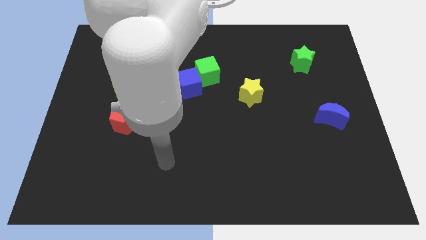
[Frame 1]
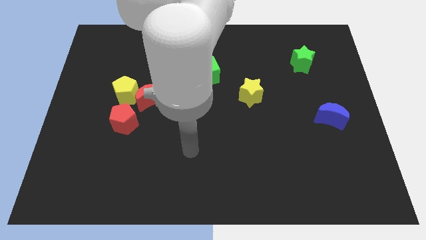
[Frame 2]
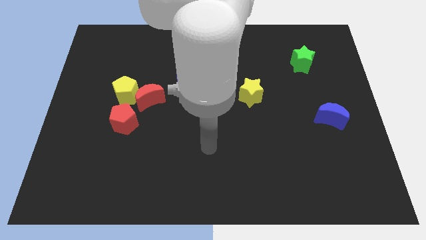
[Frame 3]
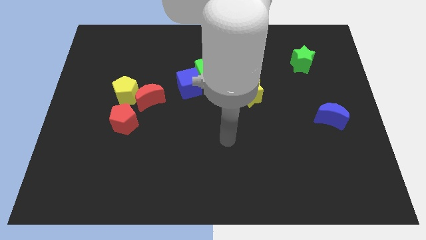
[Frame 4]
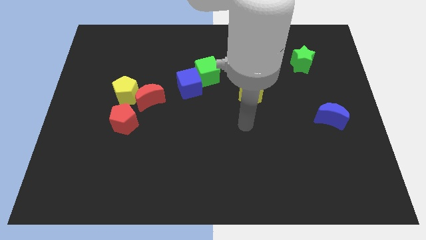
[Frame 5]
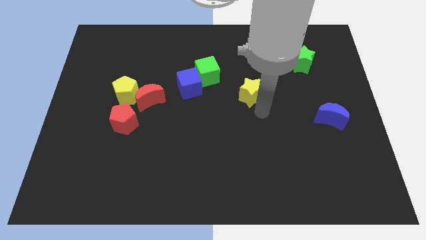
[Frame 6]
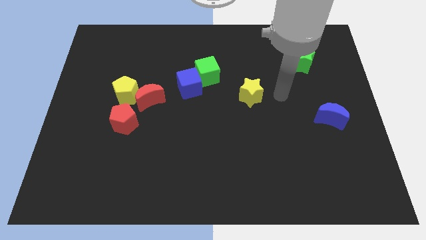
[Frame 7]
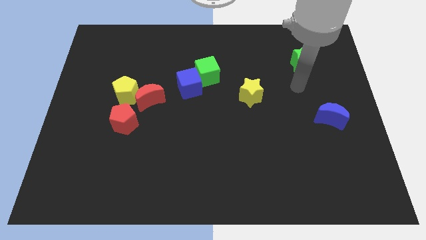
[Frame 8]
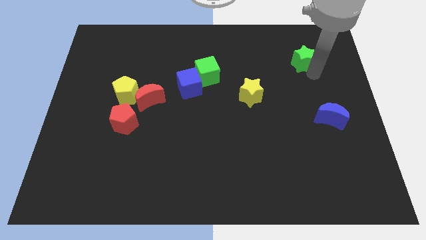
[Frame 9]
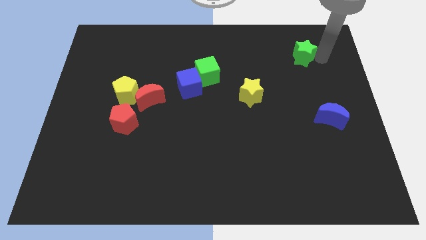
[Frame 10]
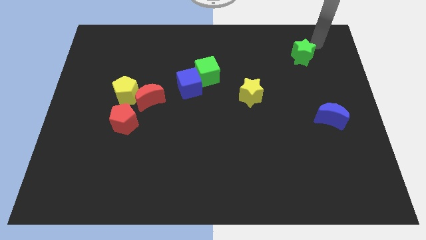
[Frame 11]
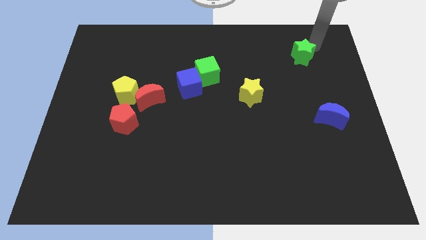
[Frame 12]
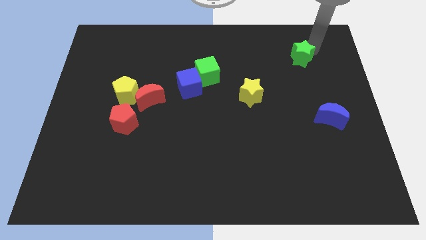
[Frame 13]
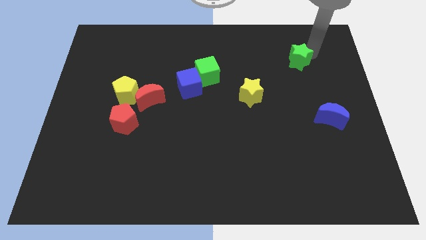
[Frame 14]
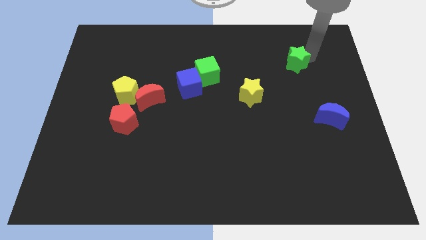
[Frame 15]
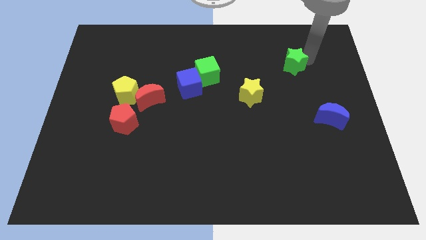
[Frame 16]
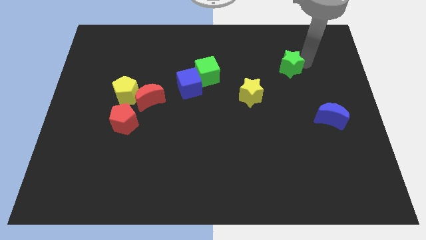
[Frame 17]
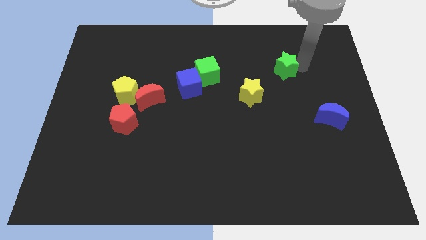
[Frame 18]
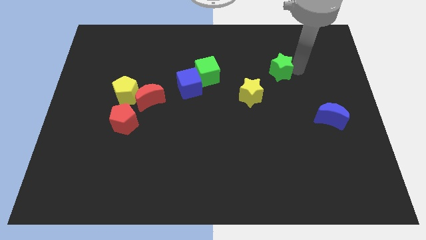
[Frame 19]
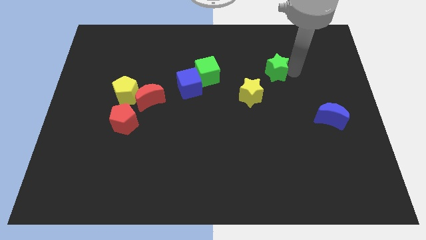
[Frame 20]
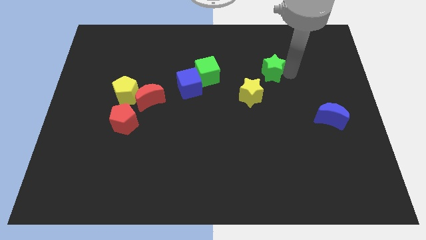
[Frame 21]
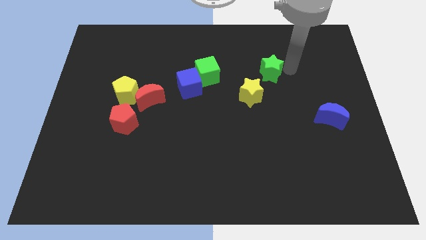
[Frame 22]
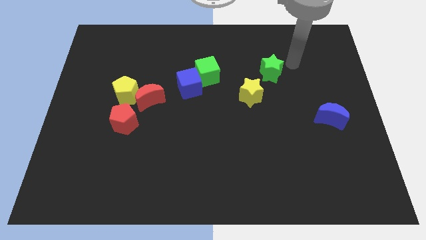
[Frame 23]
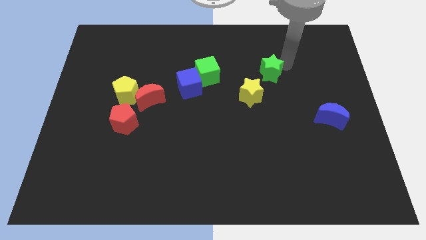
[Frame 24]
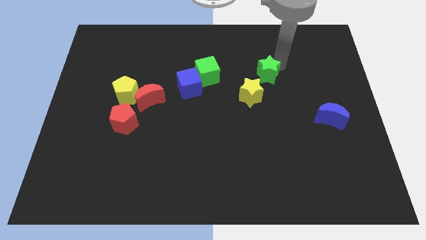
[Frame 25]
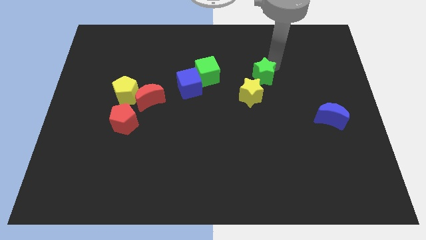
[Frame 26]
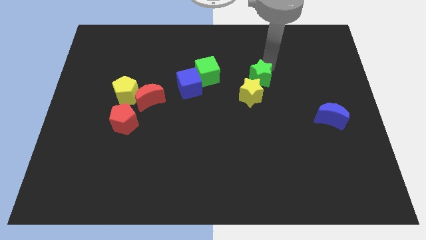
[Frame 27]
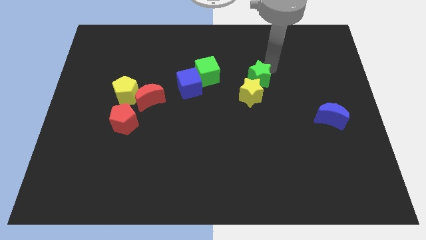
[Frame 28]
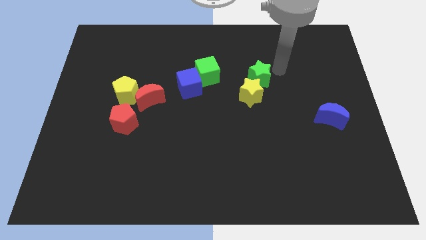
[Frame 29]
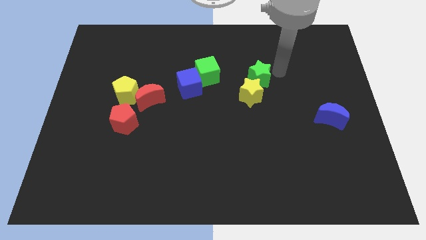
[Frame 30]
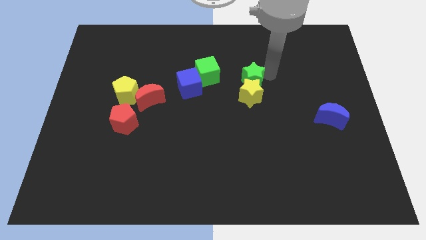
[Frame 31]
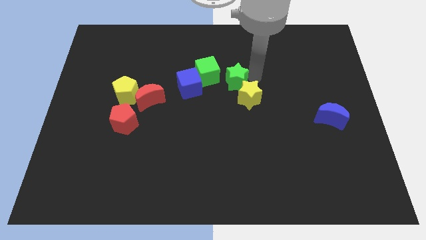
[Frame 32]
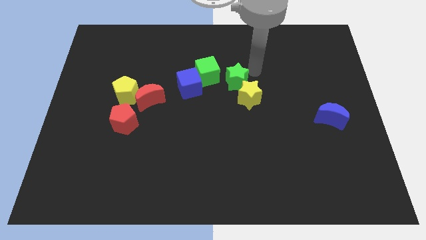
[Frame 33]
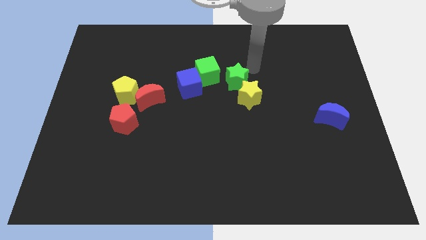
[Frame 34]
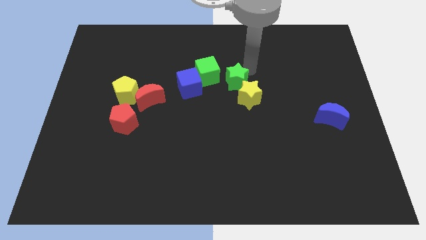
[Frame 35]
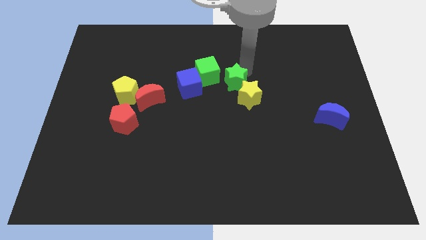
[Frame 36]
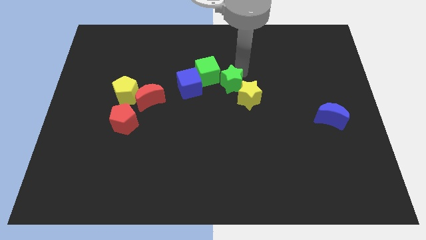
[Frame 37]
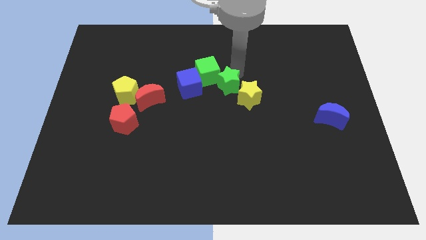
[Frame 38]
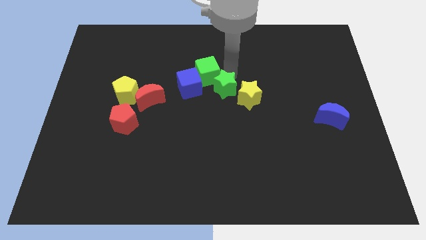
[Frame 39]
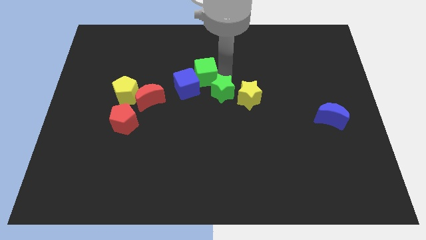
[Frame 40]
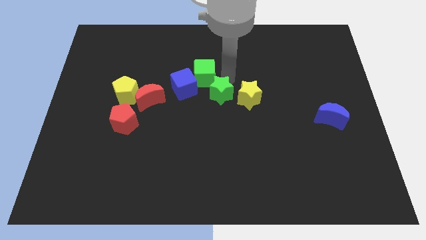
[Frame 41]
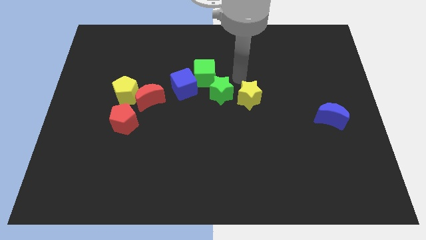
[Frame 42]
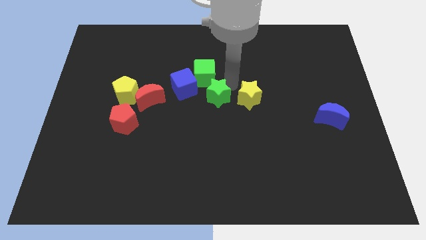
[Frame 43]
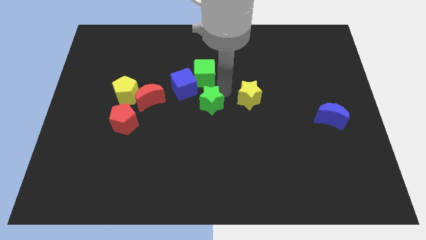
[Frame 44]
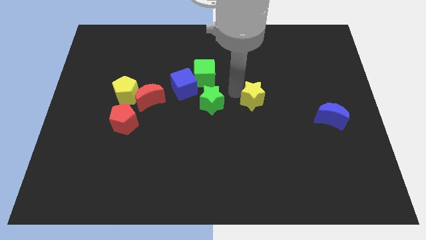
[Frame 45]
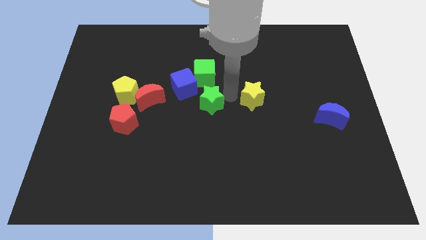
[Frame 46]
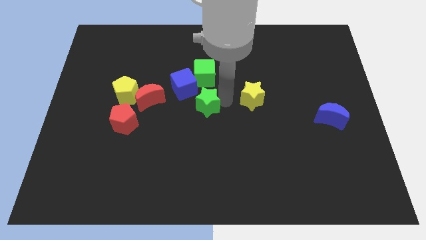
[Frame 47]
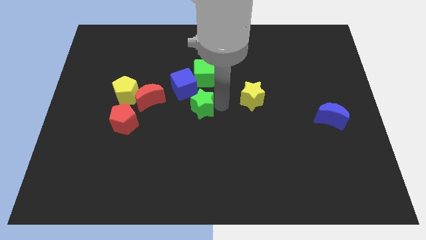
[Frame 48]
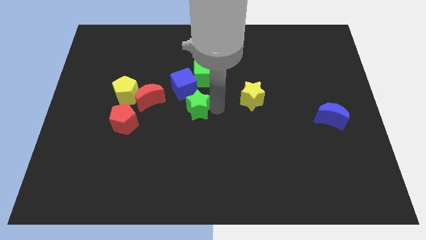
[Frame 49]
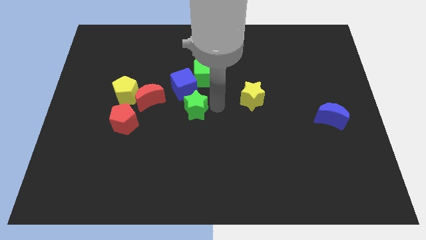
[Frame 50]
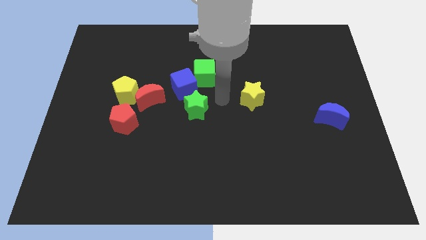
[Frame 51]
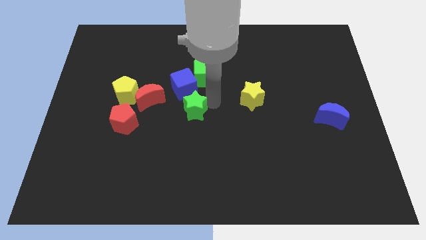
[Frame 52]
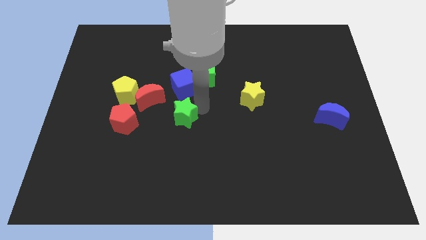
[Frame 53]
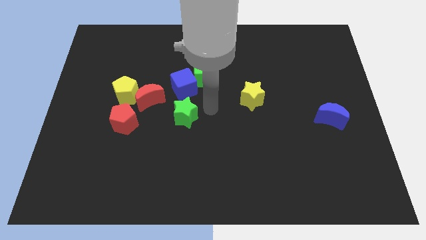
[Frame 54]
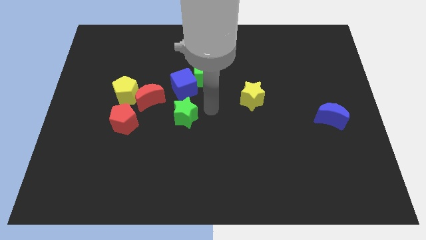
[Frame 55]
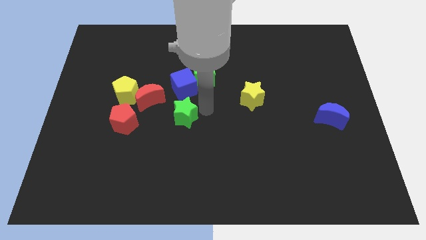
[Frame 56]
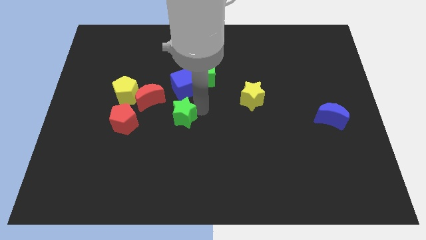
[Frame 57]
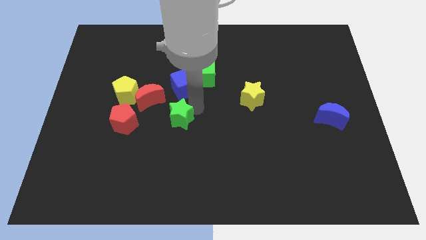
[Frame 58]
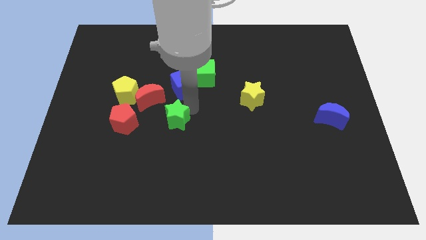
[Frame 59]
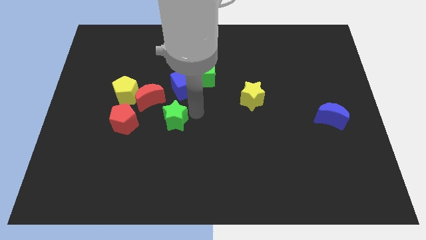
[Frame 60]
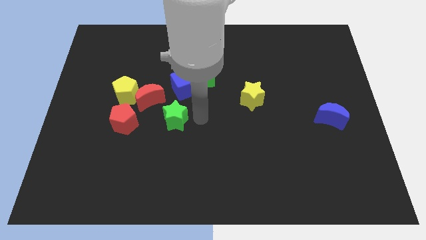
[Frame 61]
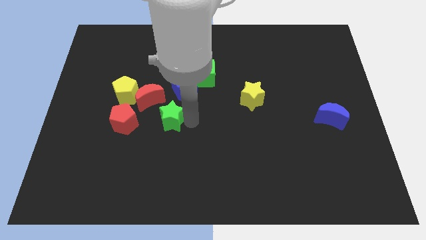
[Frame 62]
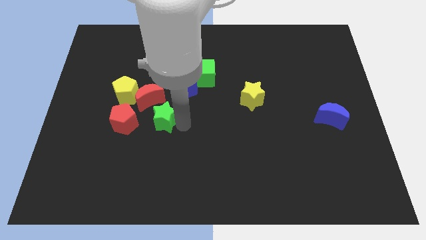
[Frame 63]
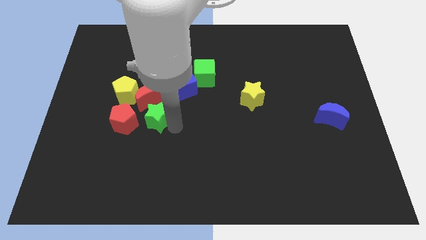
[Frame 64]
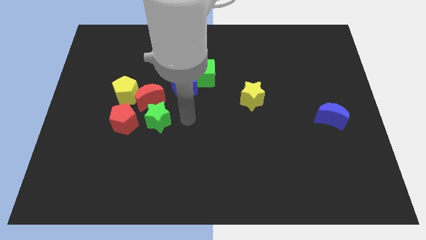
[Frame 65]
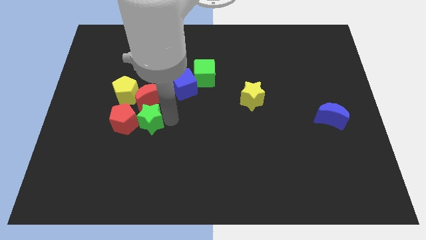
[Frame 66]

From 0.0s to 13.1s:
slide the green star close to the red pentagon

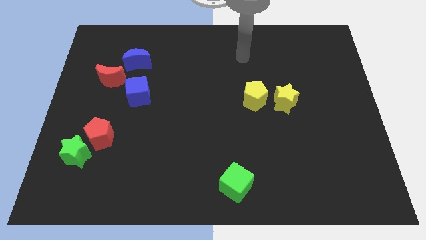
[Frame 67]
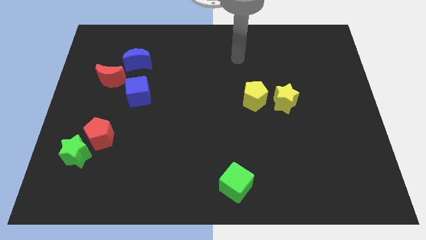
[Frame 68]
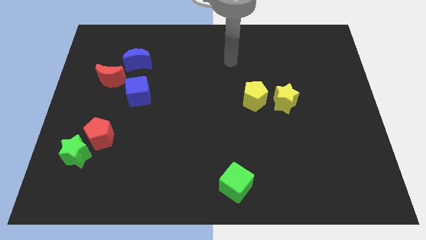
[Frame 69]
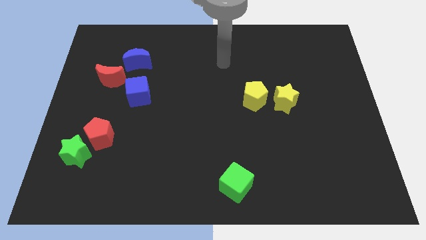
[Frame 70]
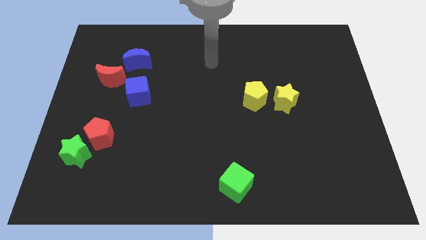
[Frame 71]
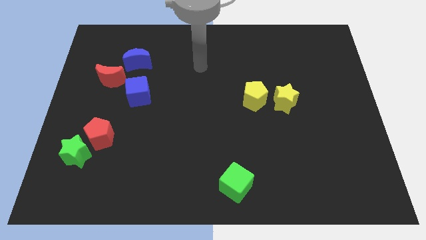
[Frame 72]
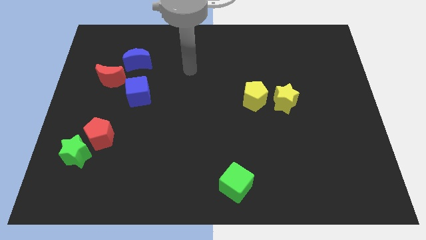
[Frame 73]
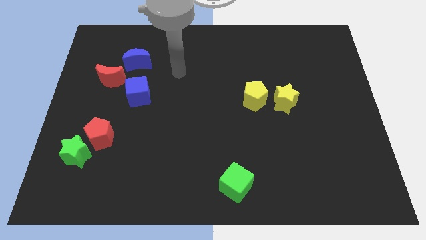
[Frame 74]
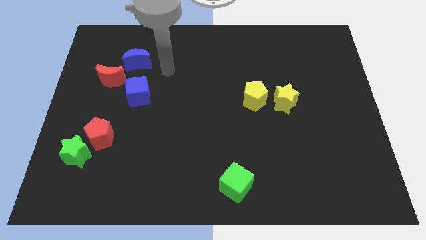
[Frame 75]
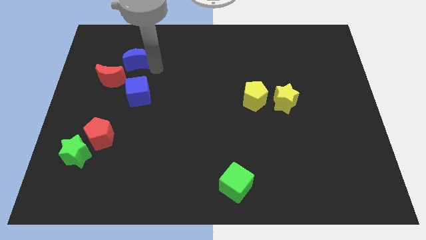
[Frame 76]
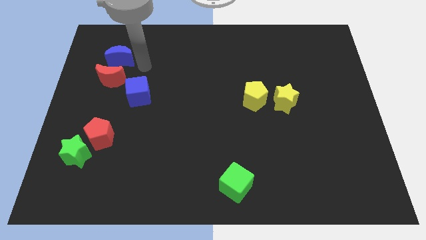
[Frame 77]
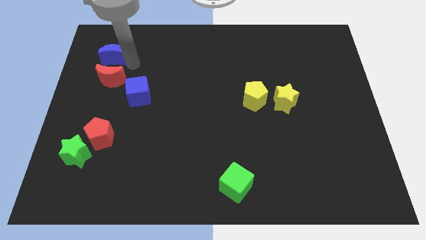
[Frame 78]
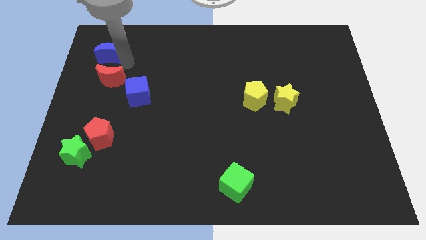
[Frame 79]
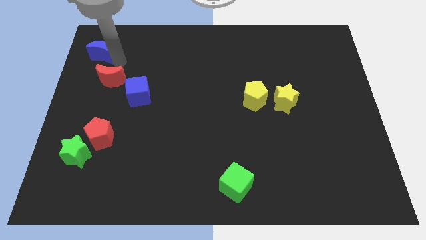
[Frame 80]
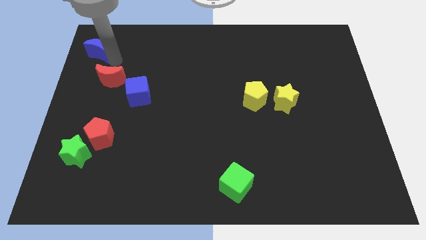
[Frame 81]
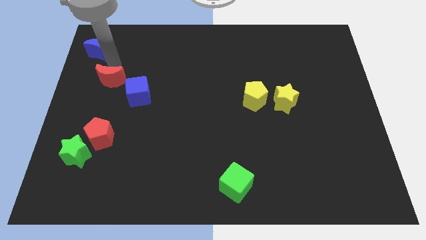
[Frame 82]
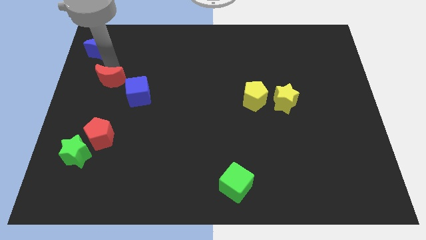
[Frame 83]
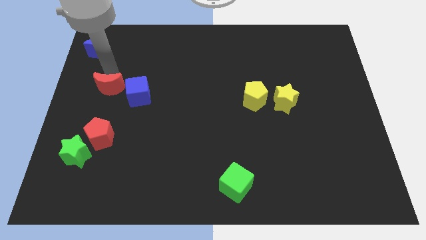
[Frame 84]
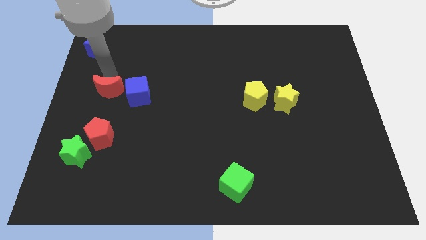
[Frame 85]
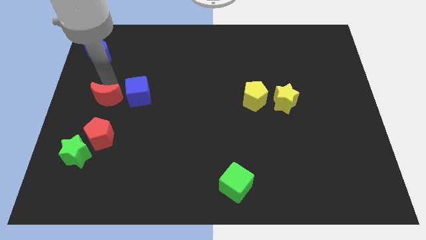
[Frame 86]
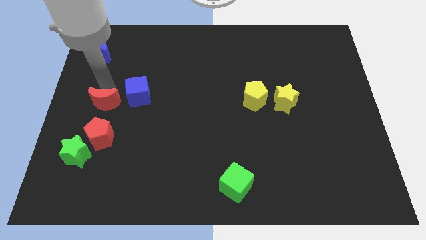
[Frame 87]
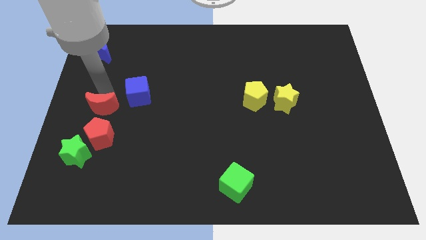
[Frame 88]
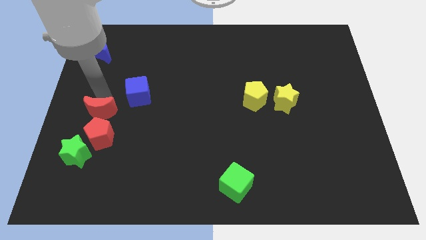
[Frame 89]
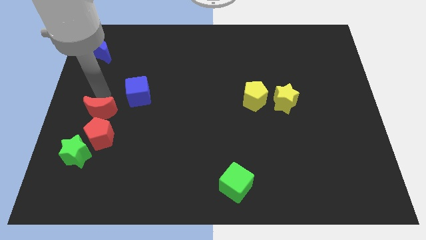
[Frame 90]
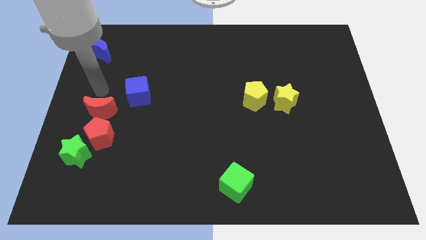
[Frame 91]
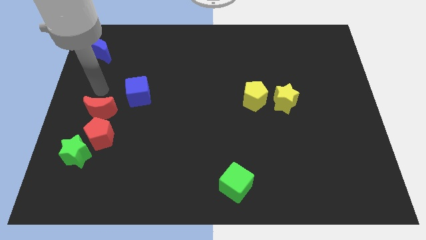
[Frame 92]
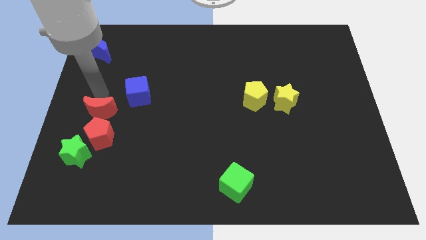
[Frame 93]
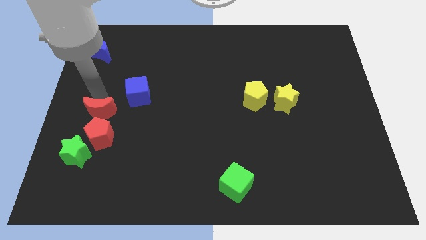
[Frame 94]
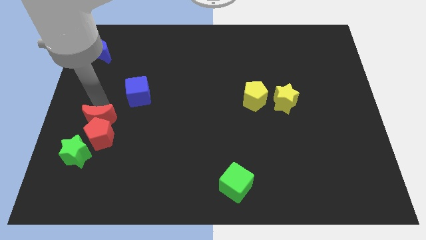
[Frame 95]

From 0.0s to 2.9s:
push the red moon towards the red pentagon
